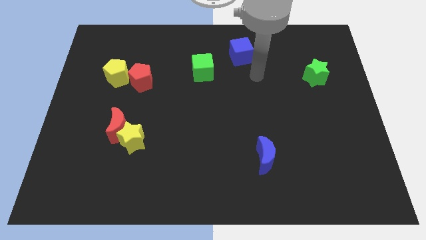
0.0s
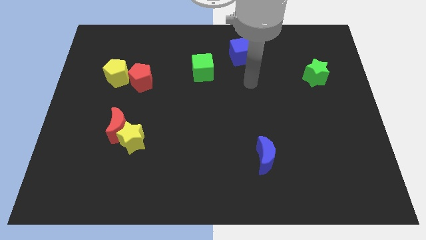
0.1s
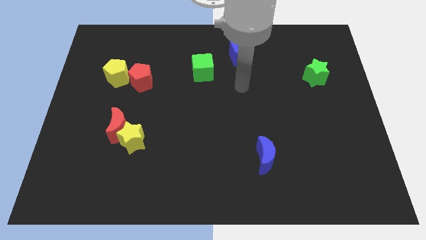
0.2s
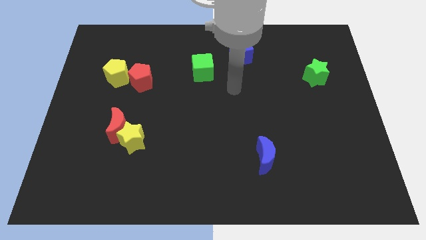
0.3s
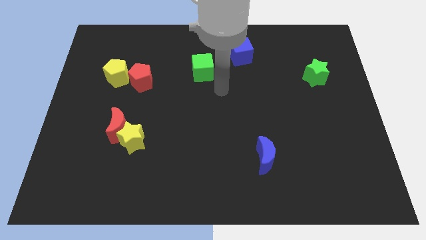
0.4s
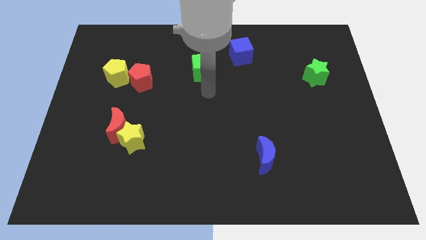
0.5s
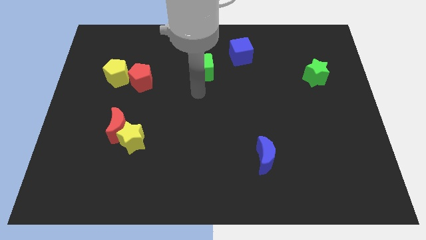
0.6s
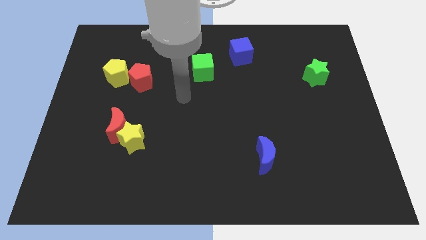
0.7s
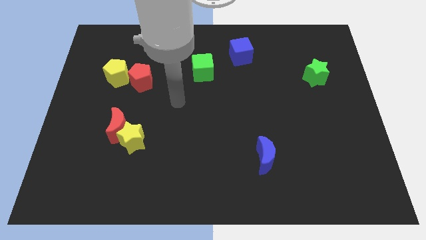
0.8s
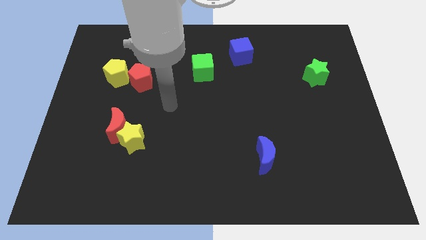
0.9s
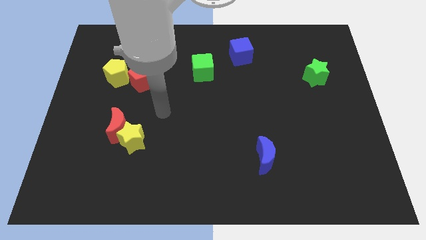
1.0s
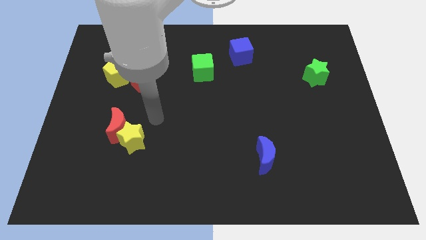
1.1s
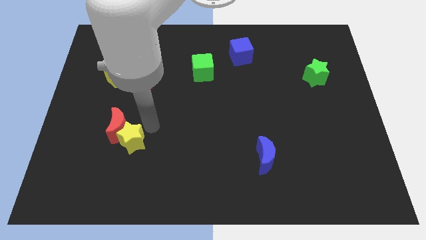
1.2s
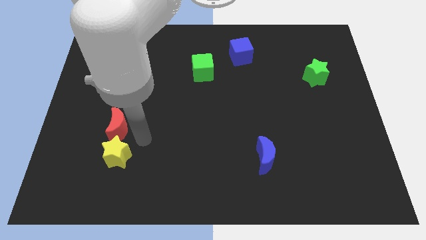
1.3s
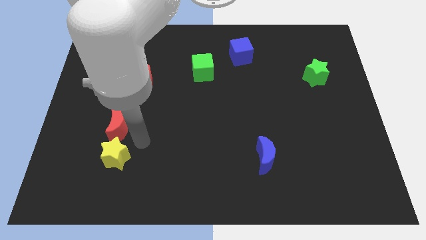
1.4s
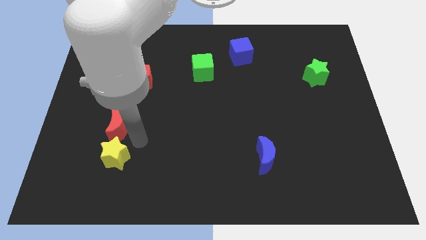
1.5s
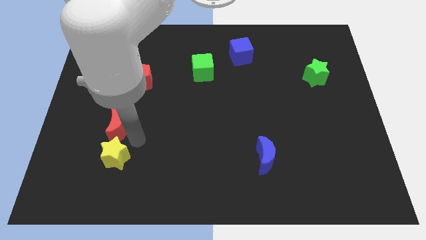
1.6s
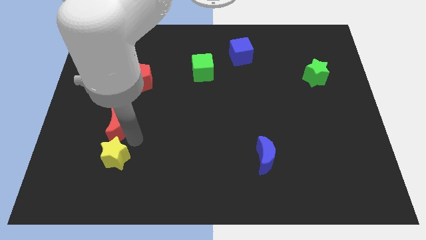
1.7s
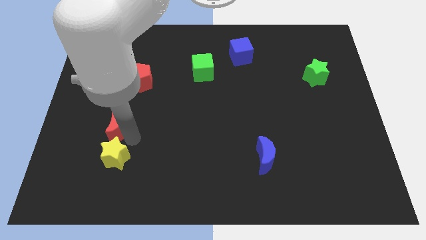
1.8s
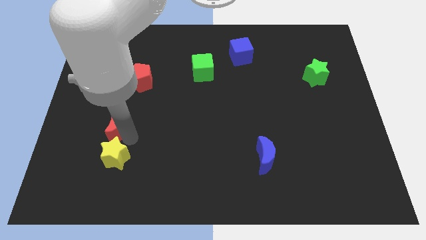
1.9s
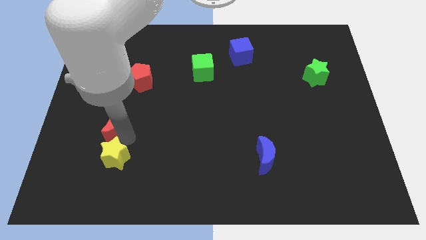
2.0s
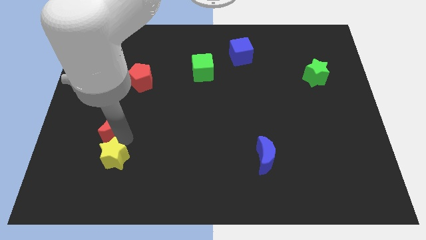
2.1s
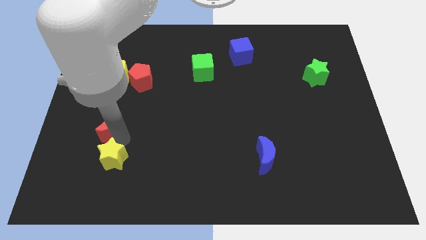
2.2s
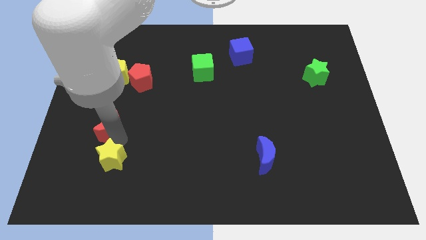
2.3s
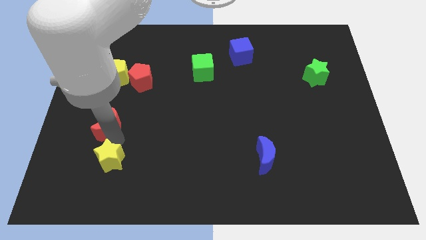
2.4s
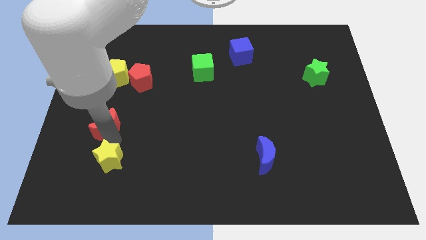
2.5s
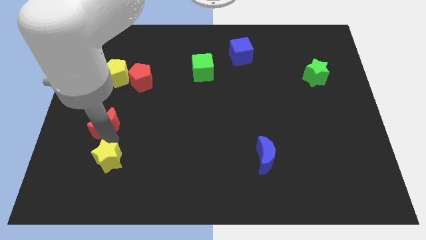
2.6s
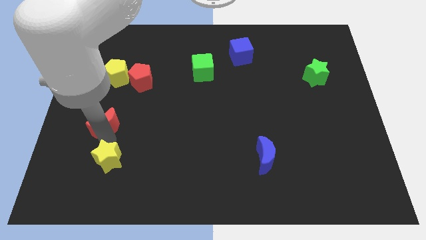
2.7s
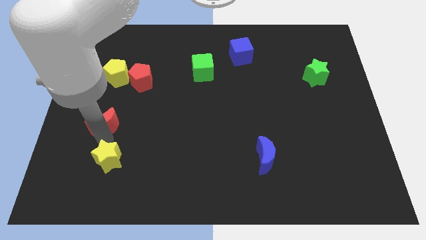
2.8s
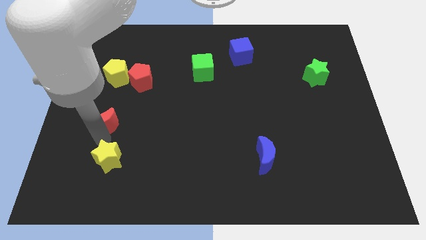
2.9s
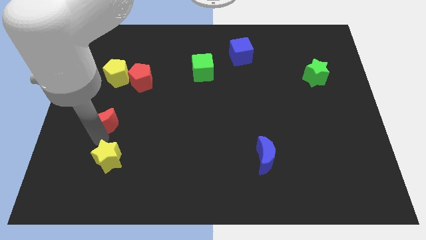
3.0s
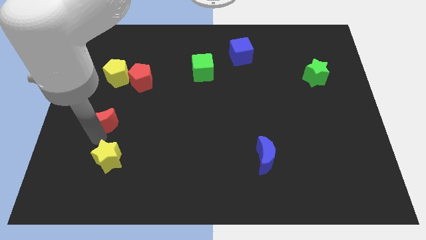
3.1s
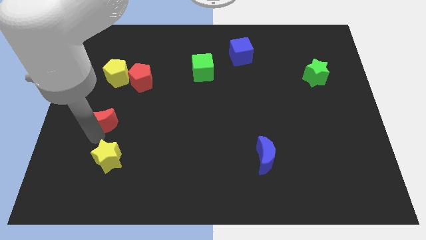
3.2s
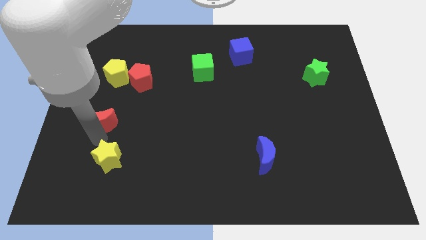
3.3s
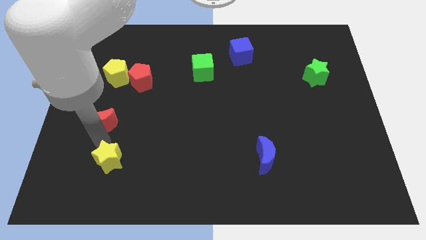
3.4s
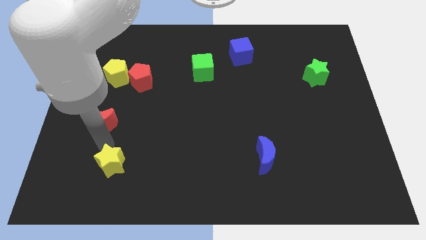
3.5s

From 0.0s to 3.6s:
move the red moon away from the yellow star

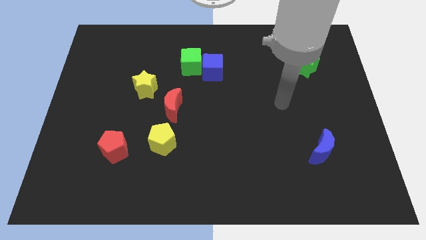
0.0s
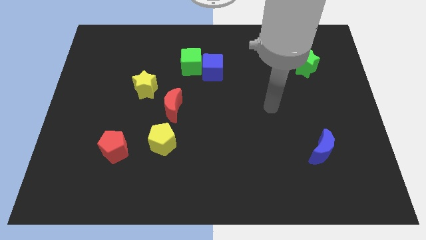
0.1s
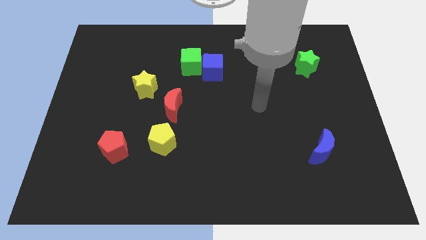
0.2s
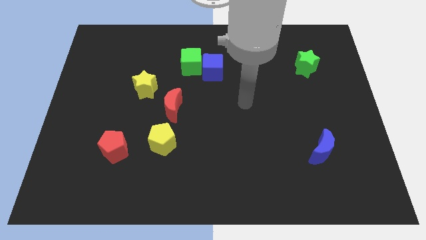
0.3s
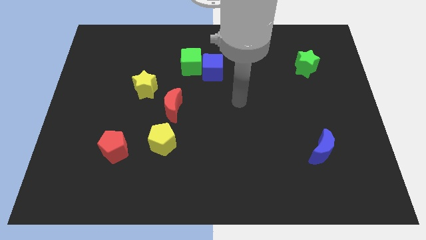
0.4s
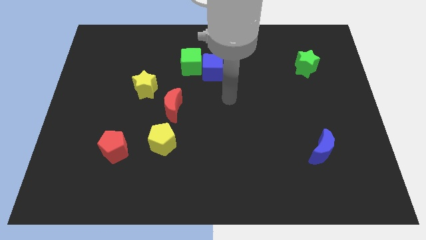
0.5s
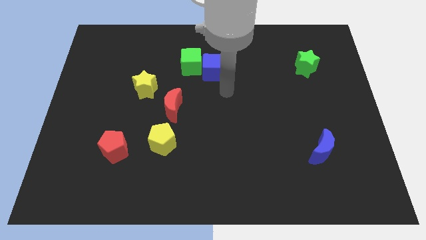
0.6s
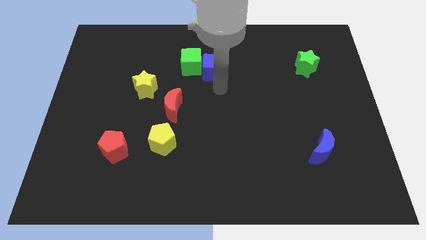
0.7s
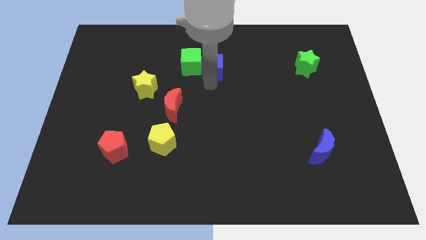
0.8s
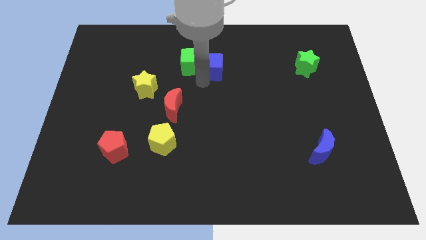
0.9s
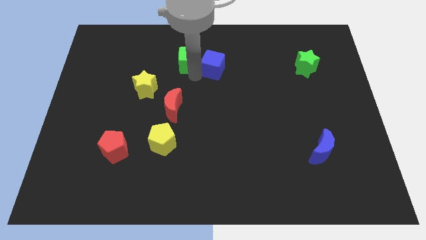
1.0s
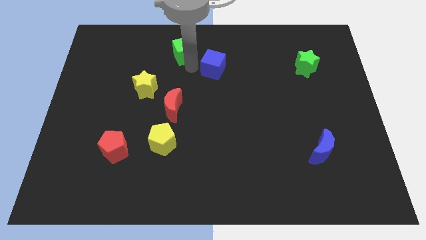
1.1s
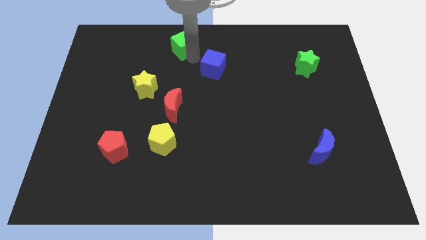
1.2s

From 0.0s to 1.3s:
pull the blue cube apart from the green cube

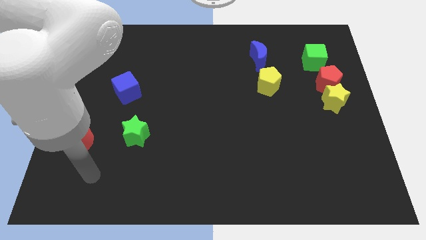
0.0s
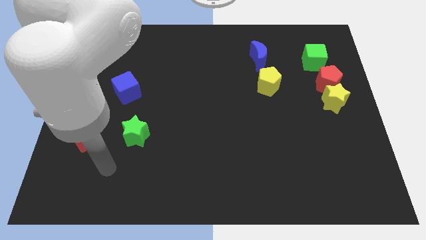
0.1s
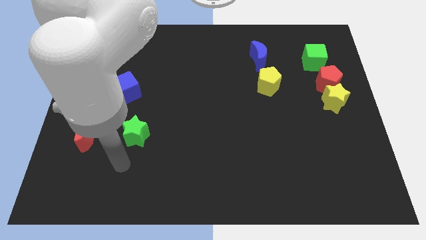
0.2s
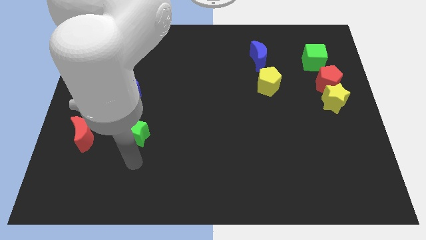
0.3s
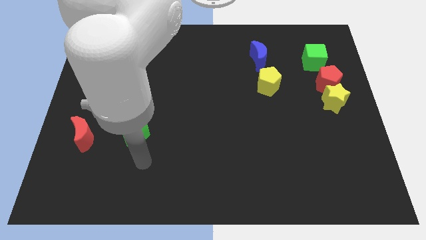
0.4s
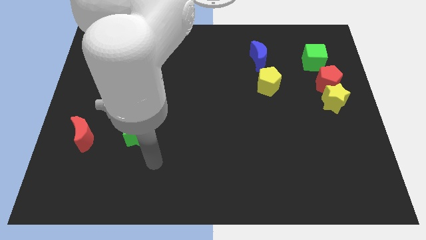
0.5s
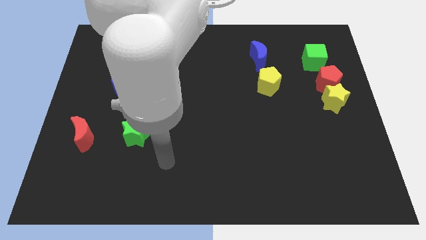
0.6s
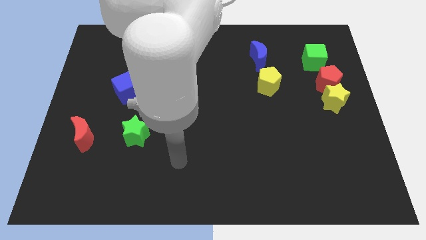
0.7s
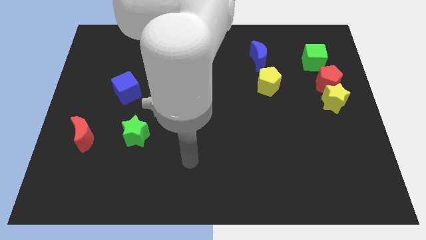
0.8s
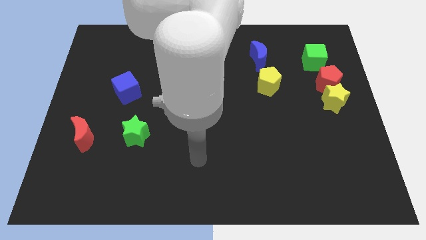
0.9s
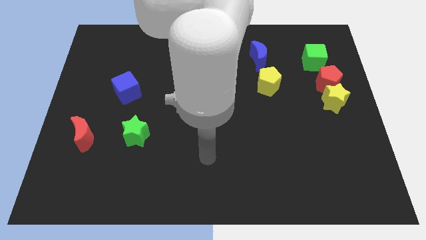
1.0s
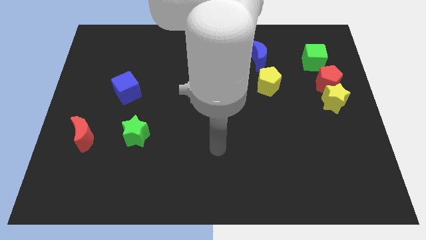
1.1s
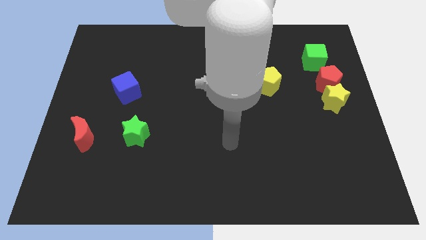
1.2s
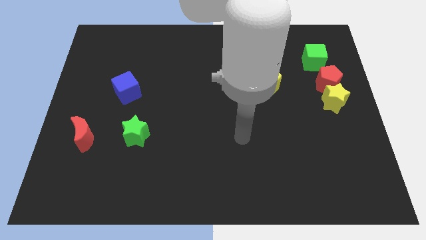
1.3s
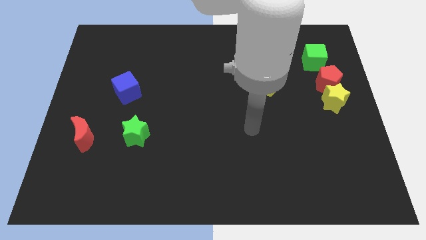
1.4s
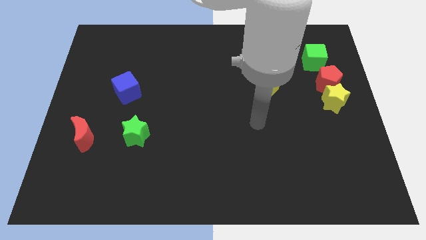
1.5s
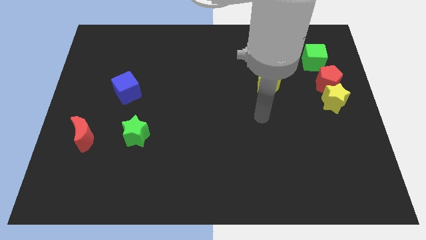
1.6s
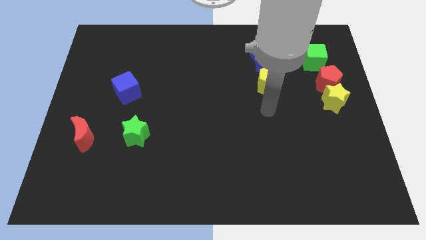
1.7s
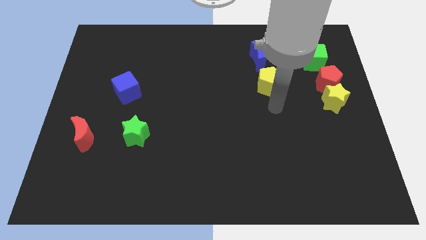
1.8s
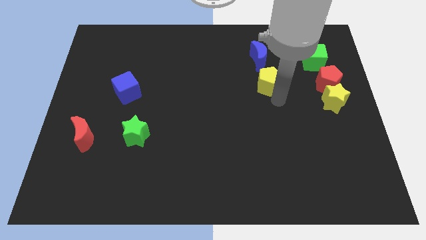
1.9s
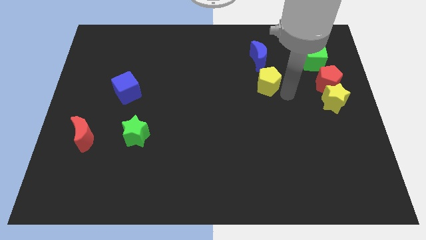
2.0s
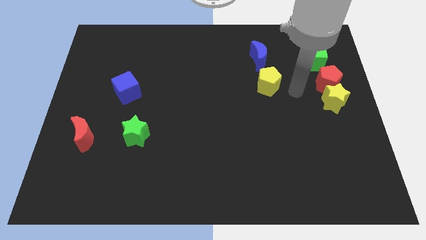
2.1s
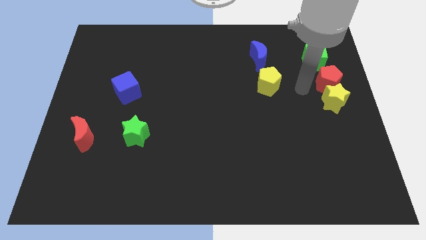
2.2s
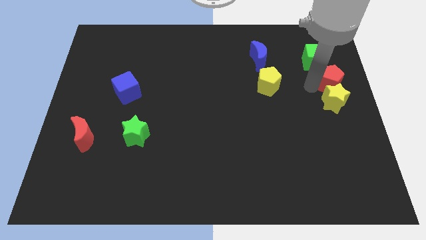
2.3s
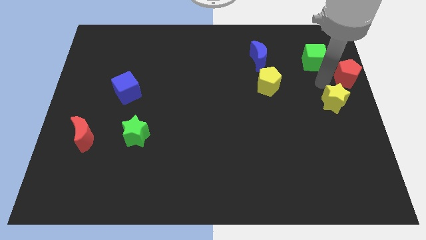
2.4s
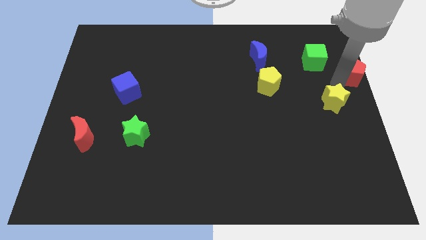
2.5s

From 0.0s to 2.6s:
separate the yellow star from the red pentagon

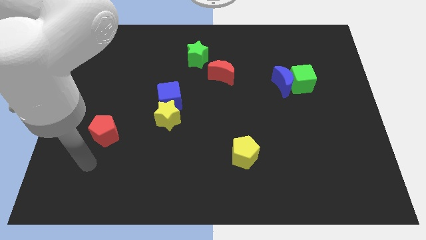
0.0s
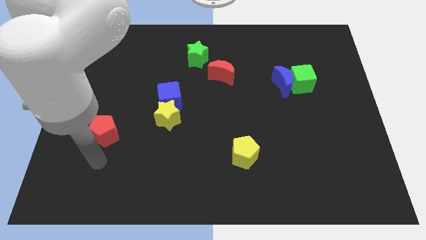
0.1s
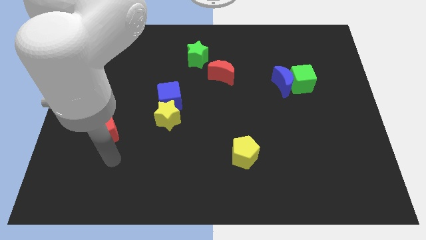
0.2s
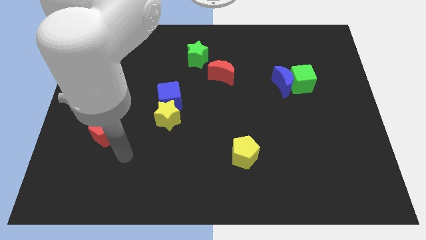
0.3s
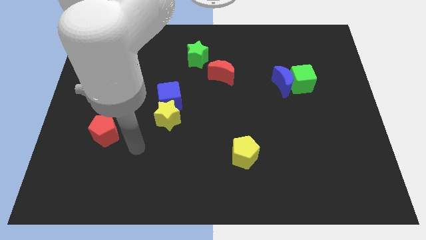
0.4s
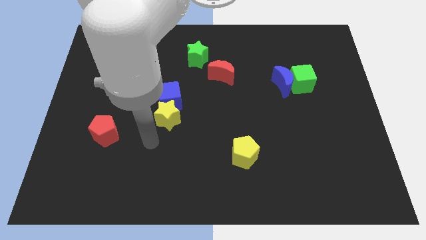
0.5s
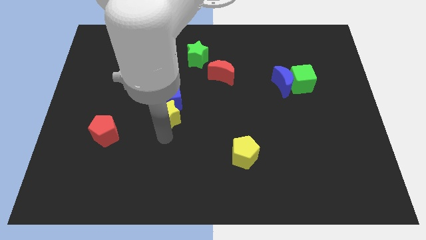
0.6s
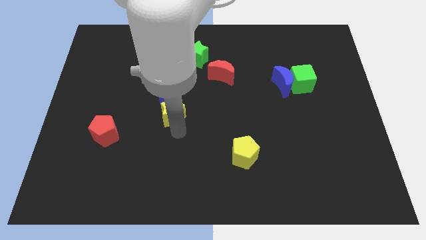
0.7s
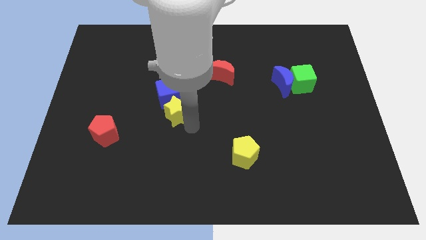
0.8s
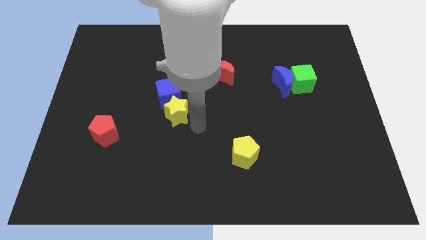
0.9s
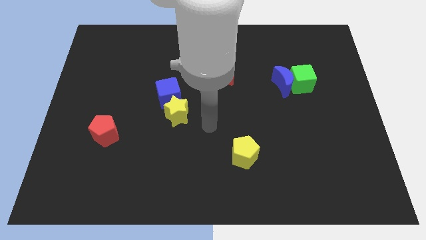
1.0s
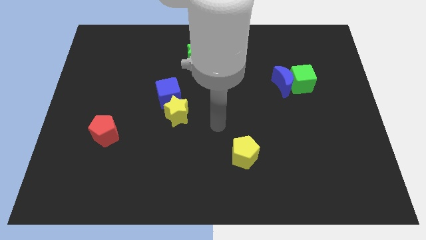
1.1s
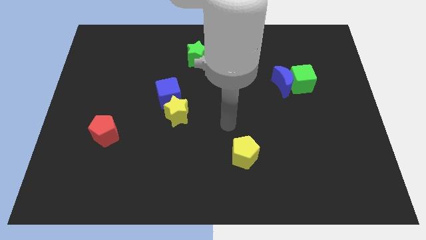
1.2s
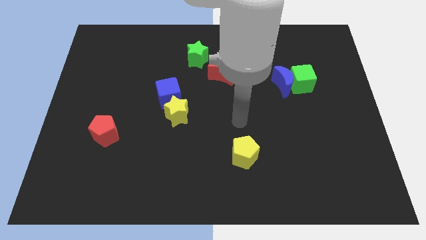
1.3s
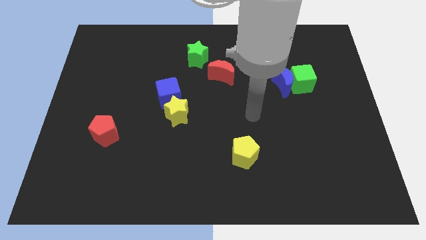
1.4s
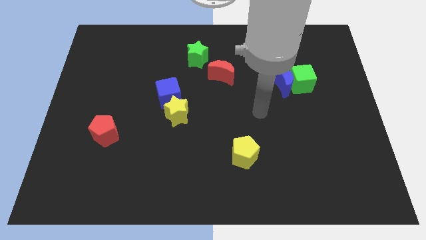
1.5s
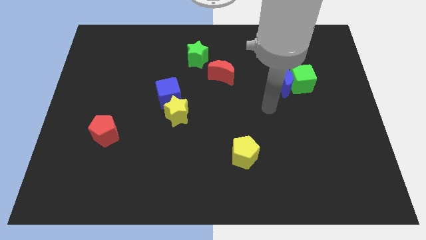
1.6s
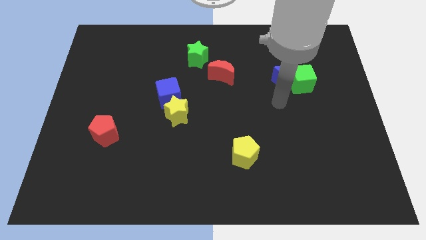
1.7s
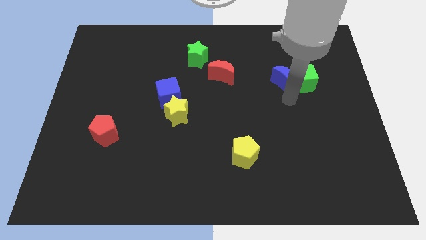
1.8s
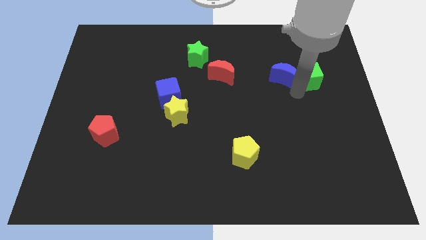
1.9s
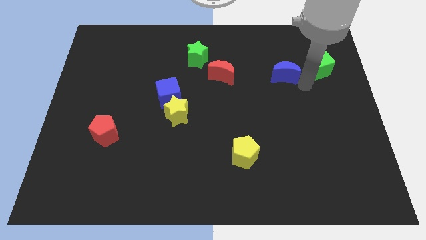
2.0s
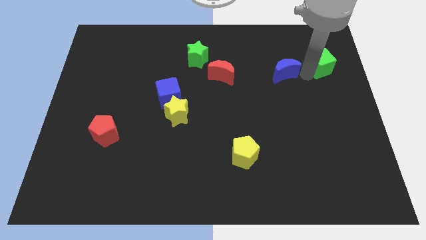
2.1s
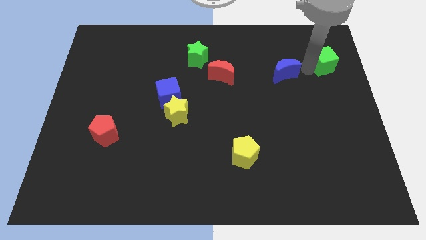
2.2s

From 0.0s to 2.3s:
move the blue moon away from the green cube
